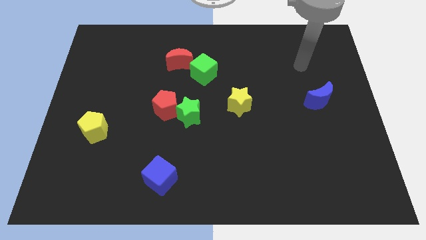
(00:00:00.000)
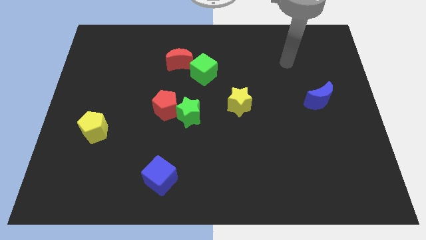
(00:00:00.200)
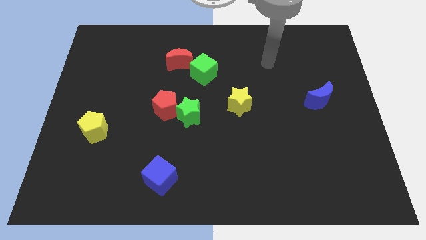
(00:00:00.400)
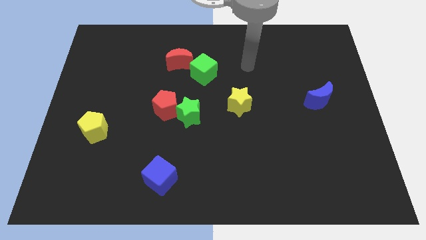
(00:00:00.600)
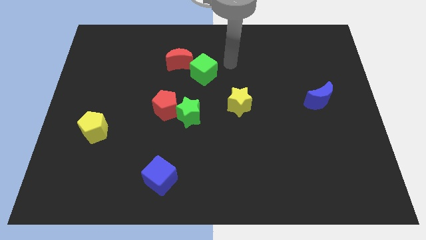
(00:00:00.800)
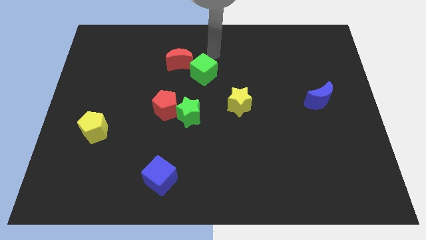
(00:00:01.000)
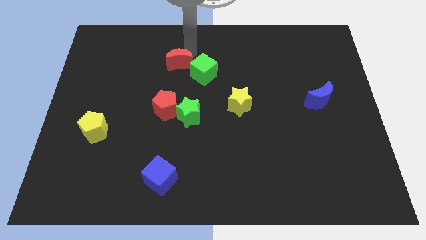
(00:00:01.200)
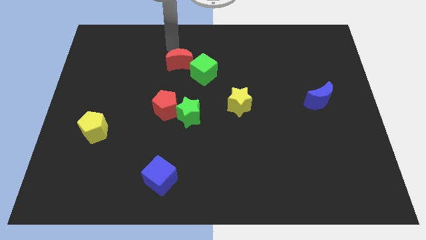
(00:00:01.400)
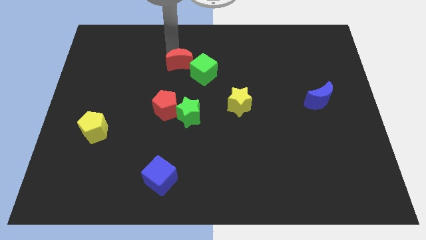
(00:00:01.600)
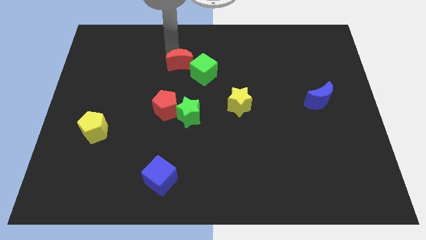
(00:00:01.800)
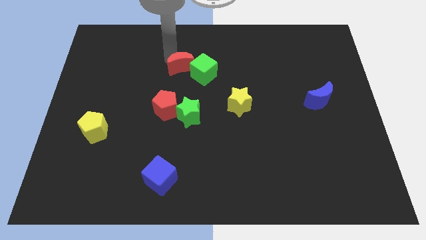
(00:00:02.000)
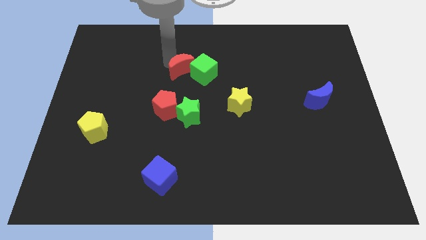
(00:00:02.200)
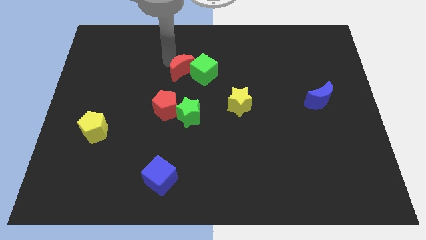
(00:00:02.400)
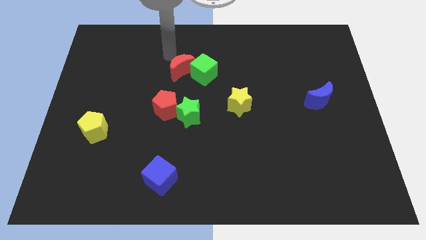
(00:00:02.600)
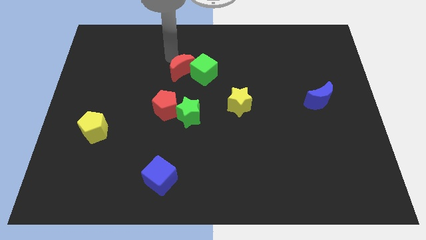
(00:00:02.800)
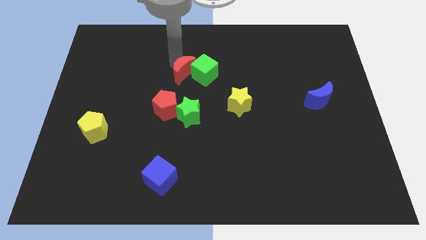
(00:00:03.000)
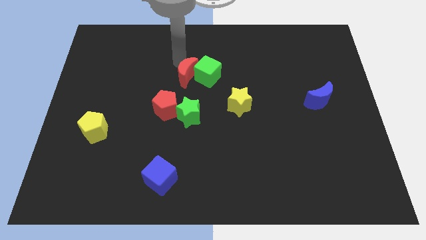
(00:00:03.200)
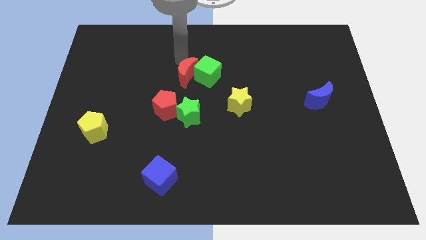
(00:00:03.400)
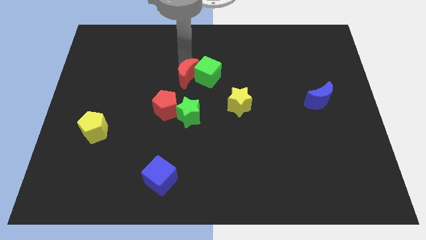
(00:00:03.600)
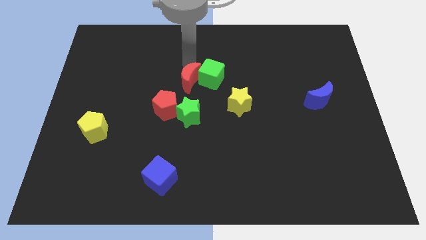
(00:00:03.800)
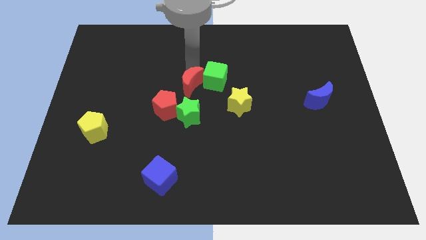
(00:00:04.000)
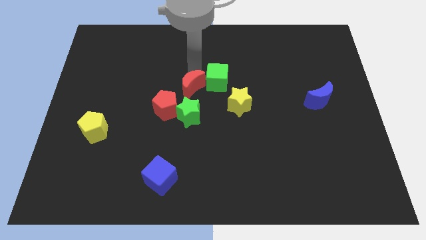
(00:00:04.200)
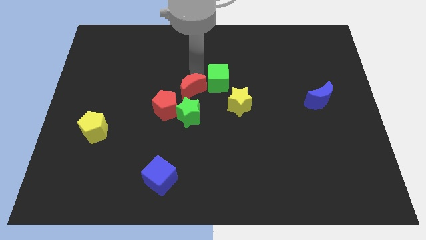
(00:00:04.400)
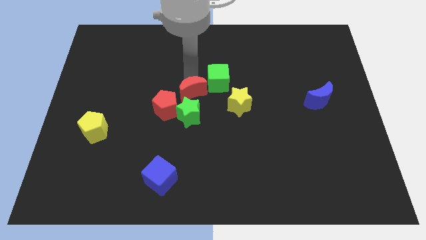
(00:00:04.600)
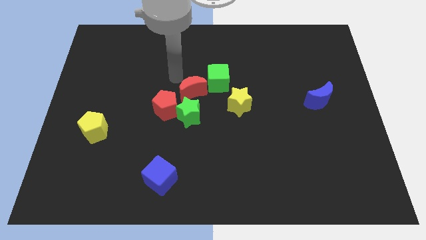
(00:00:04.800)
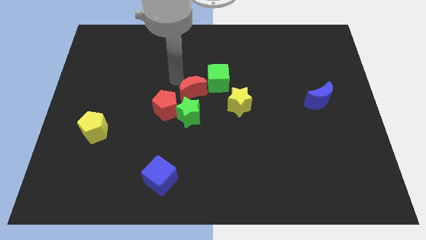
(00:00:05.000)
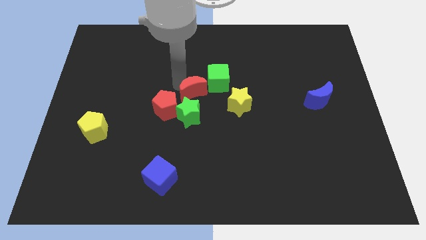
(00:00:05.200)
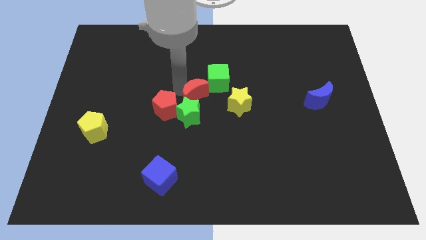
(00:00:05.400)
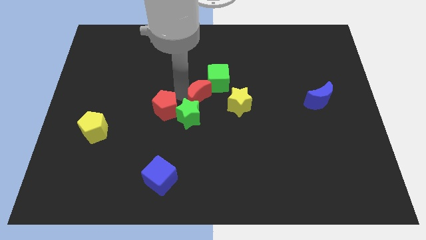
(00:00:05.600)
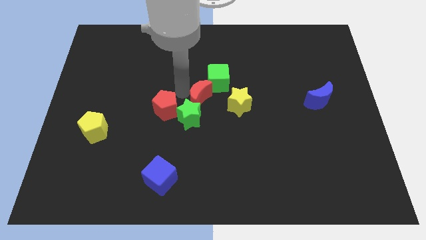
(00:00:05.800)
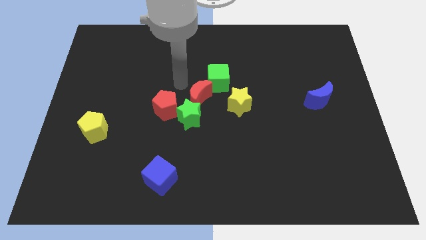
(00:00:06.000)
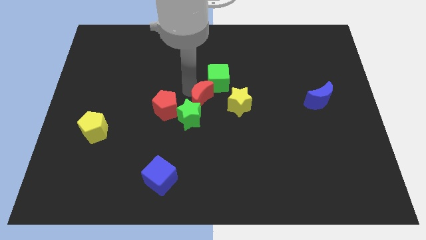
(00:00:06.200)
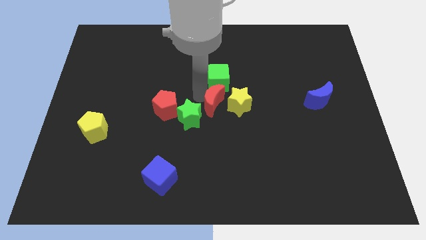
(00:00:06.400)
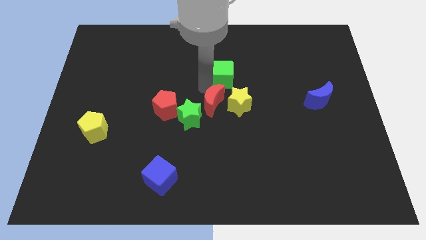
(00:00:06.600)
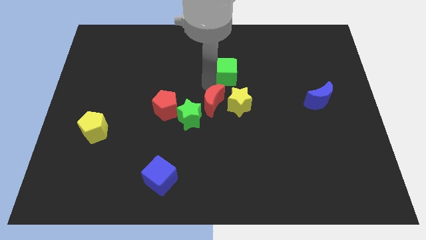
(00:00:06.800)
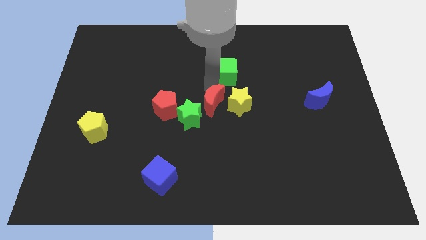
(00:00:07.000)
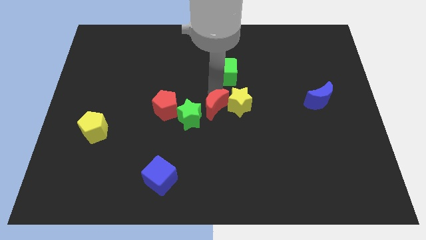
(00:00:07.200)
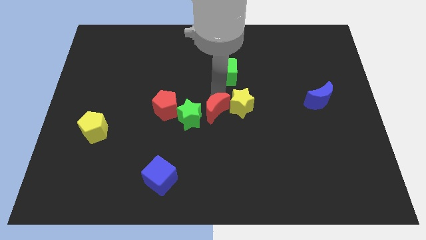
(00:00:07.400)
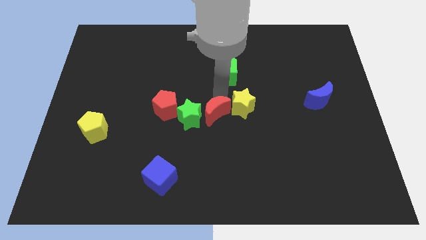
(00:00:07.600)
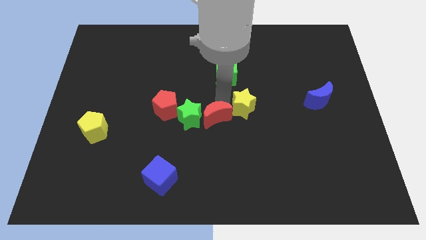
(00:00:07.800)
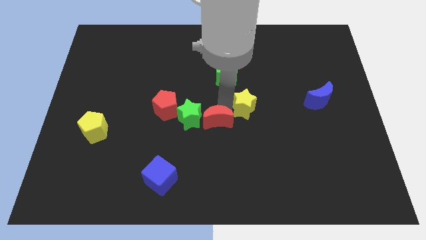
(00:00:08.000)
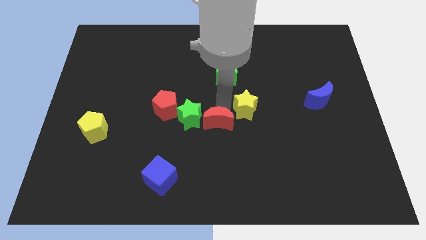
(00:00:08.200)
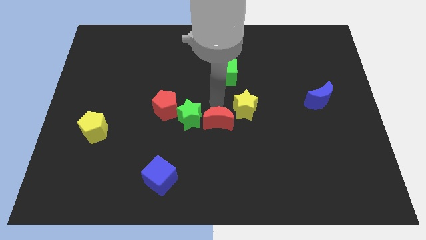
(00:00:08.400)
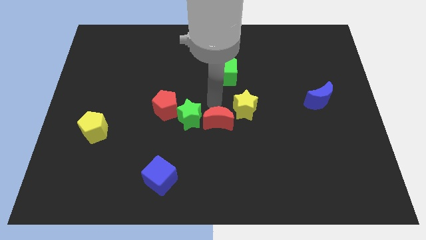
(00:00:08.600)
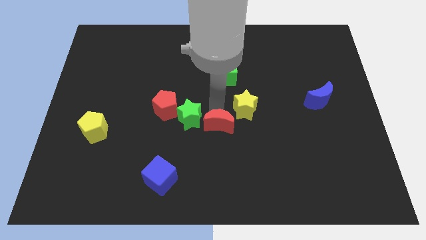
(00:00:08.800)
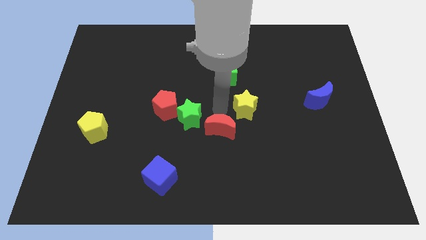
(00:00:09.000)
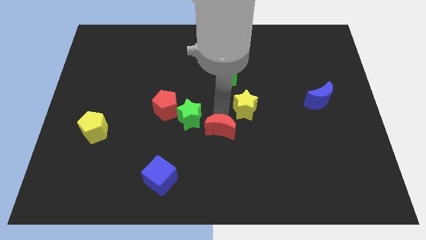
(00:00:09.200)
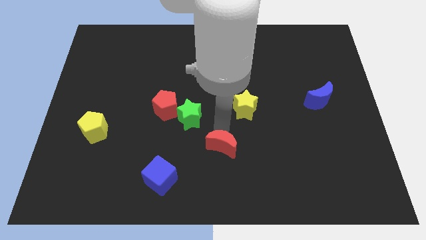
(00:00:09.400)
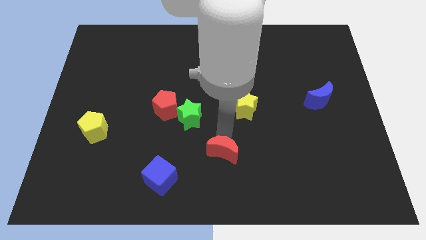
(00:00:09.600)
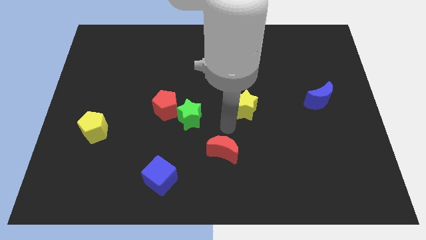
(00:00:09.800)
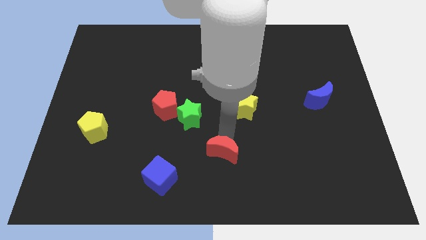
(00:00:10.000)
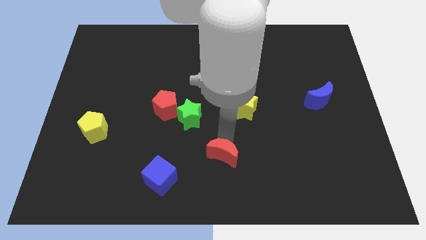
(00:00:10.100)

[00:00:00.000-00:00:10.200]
put the red moon to the bottom side
